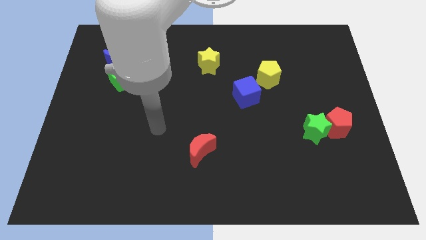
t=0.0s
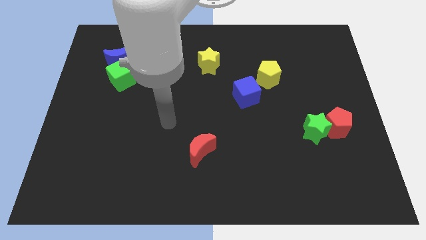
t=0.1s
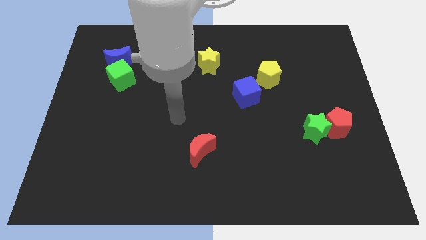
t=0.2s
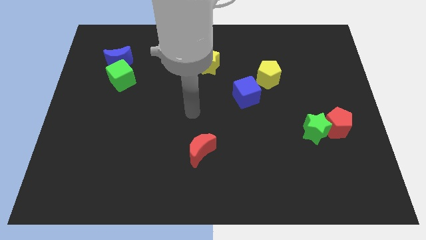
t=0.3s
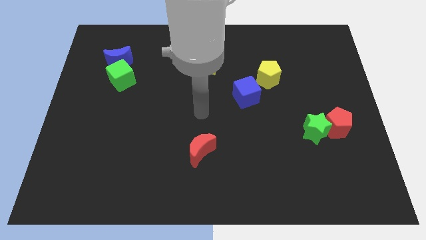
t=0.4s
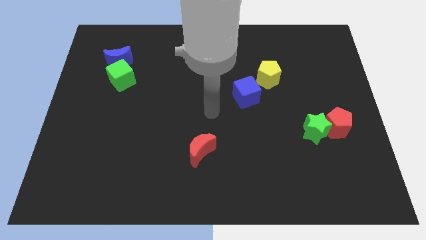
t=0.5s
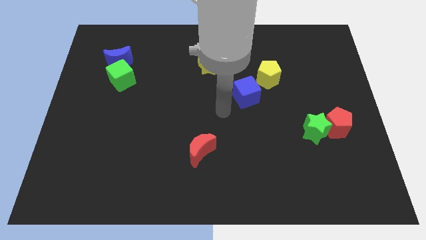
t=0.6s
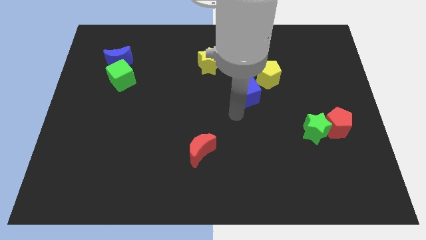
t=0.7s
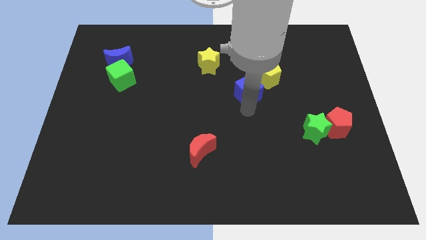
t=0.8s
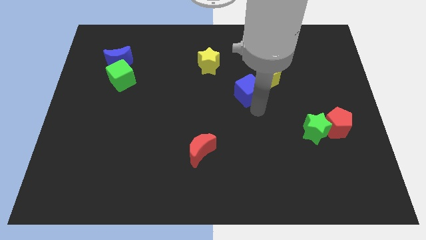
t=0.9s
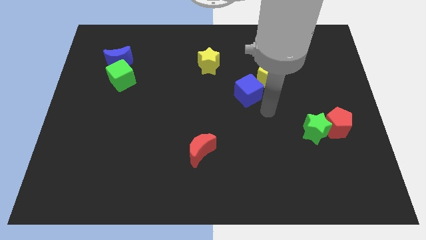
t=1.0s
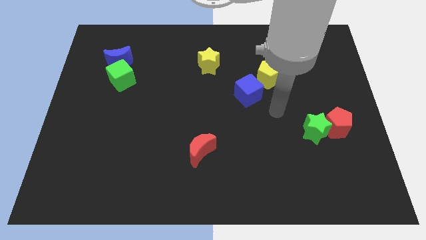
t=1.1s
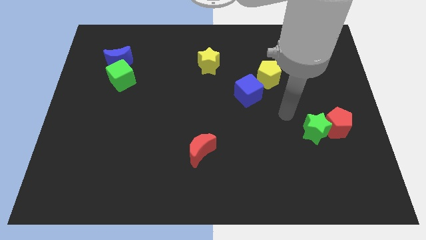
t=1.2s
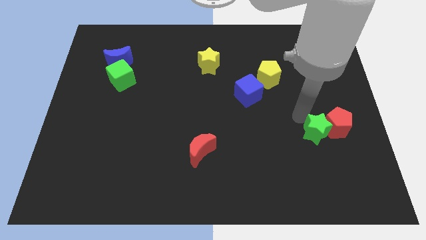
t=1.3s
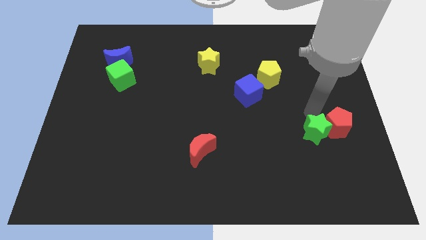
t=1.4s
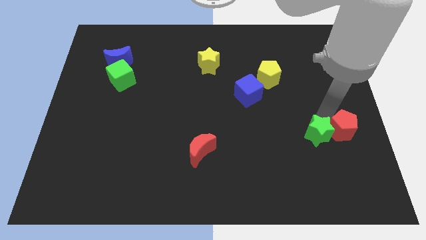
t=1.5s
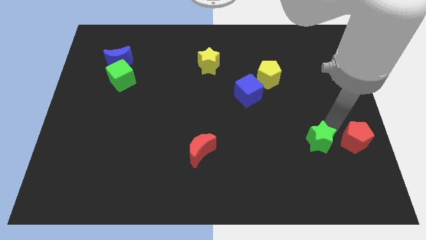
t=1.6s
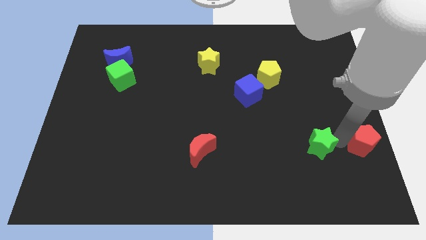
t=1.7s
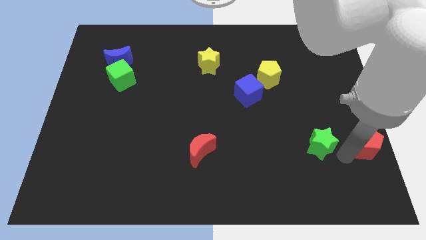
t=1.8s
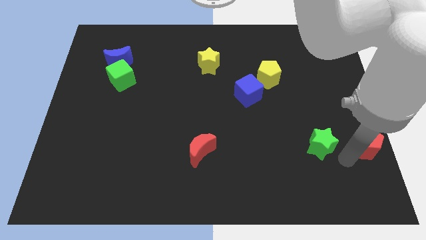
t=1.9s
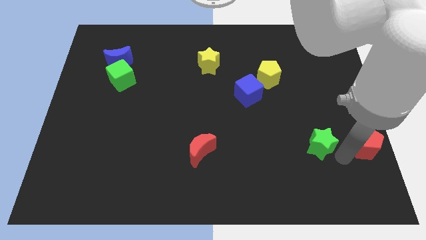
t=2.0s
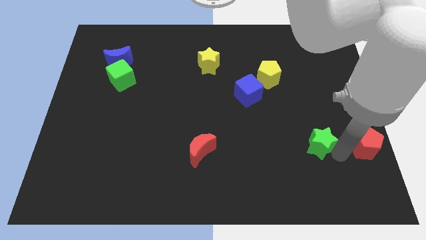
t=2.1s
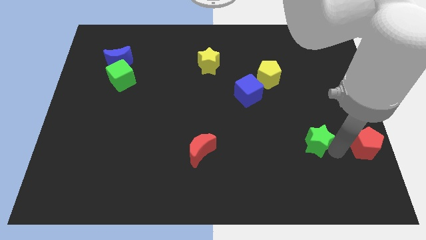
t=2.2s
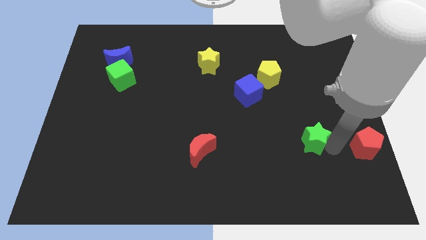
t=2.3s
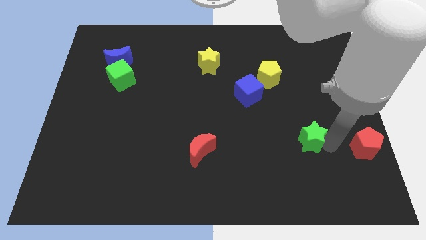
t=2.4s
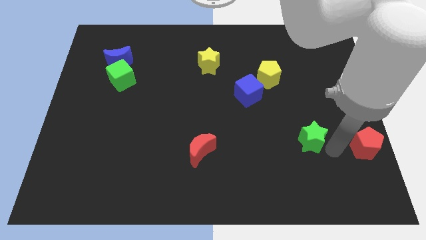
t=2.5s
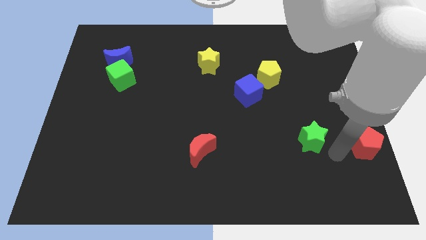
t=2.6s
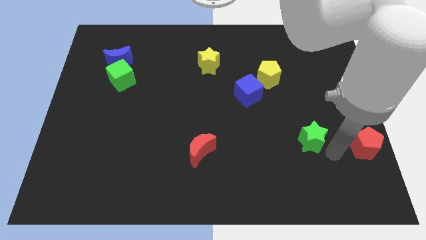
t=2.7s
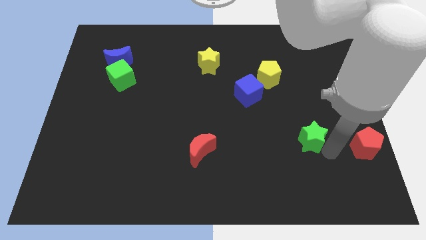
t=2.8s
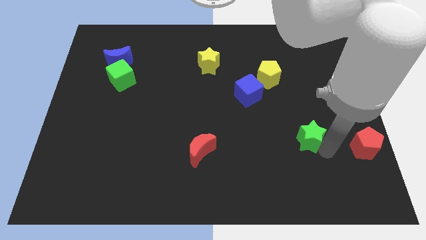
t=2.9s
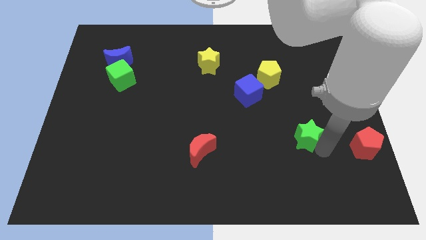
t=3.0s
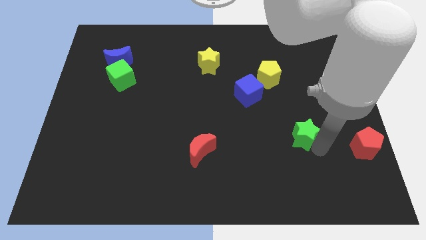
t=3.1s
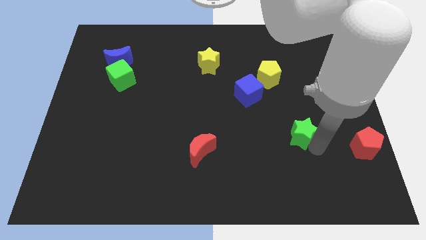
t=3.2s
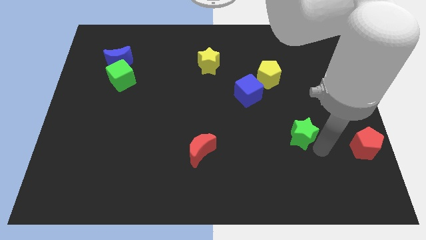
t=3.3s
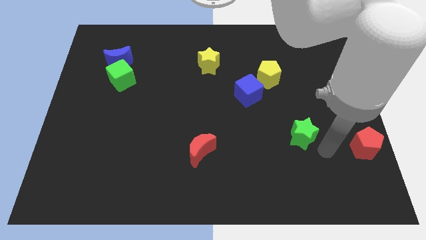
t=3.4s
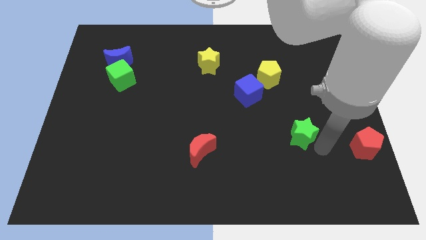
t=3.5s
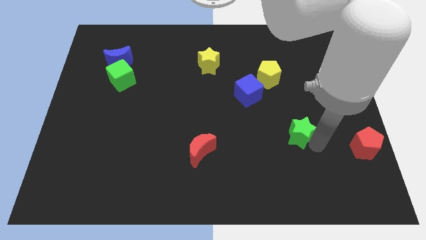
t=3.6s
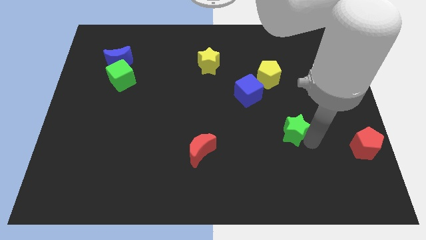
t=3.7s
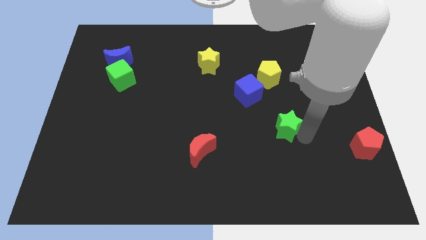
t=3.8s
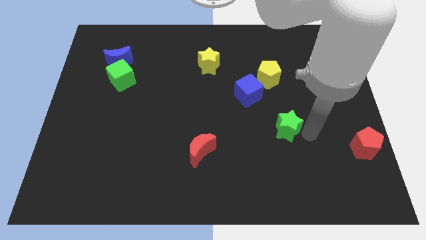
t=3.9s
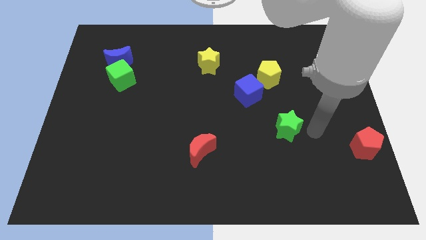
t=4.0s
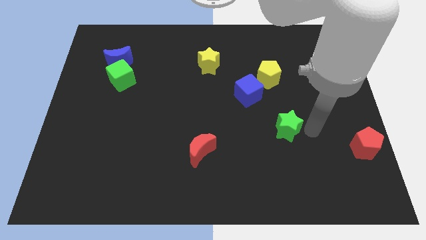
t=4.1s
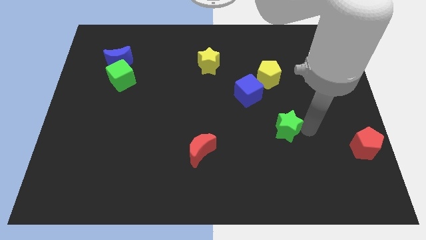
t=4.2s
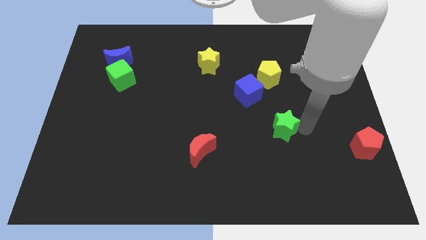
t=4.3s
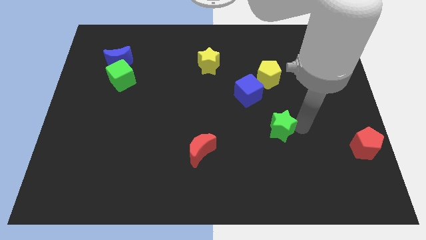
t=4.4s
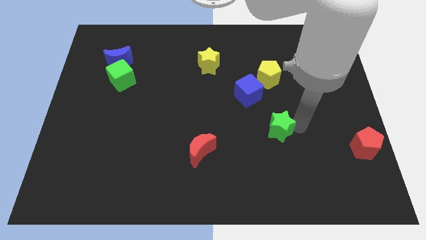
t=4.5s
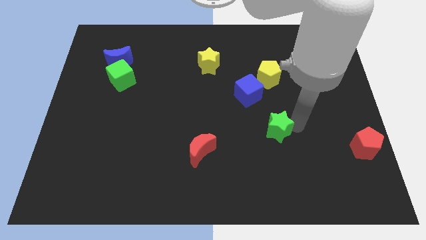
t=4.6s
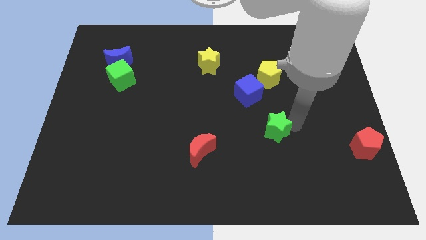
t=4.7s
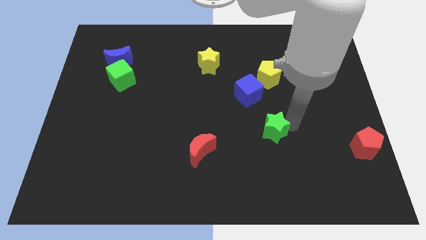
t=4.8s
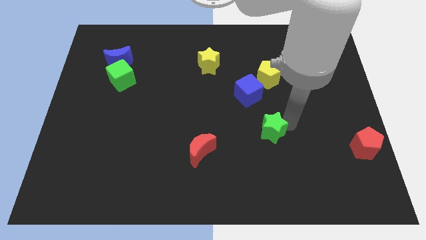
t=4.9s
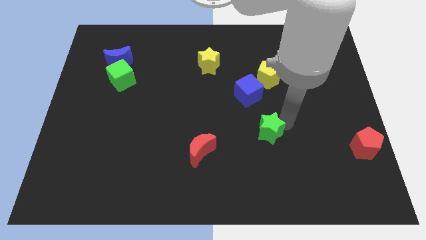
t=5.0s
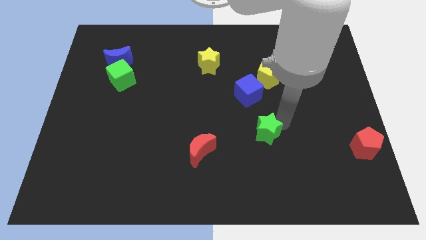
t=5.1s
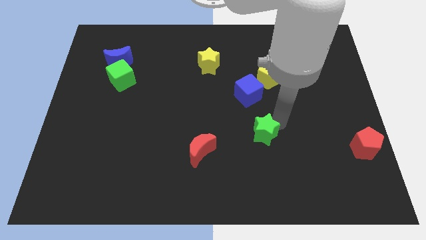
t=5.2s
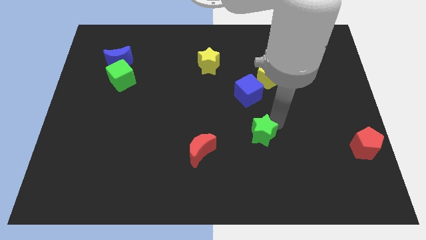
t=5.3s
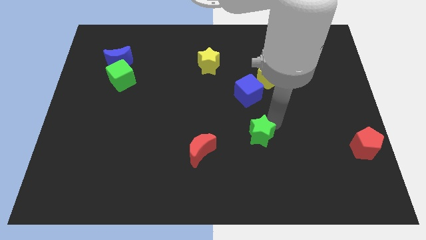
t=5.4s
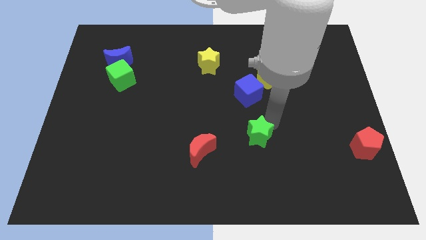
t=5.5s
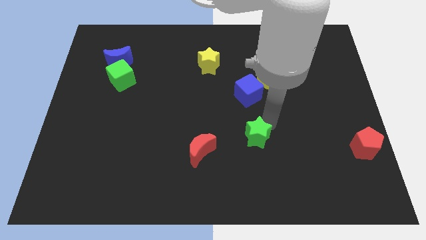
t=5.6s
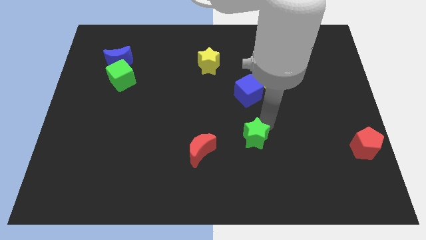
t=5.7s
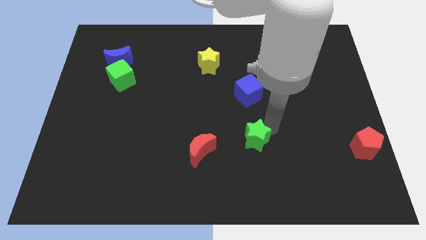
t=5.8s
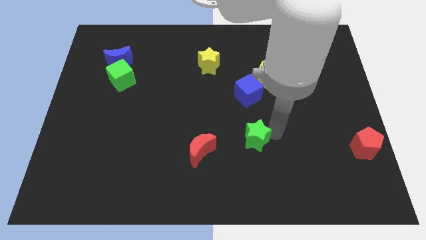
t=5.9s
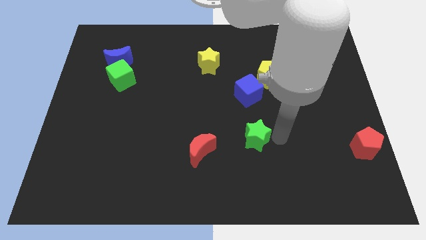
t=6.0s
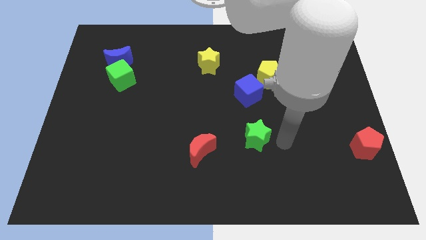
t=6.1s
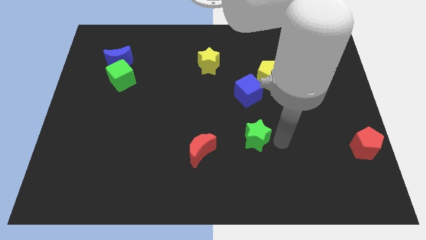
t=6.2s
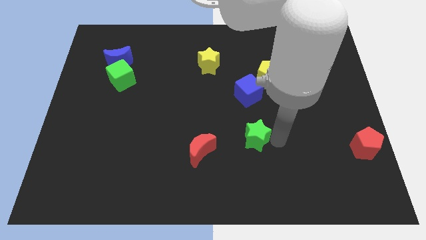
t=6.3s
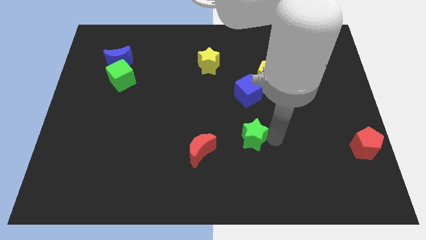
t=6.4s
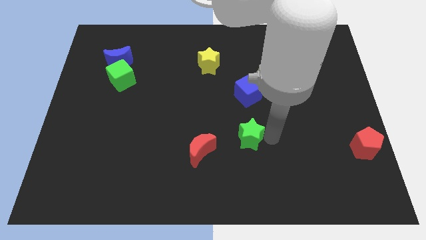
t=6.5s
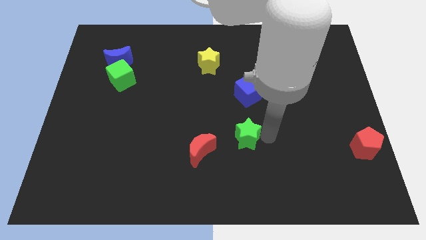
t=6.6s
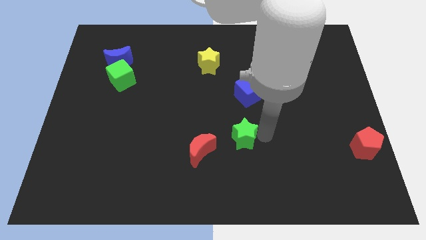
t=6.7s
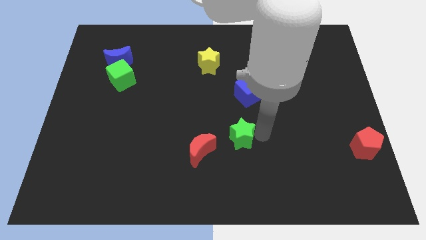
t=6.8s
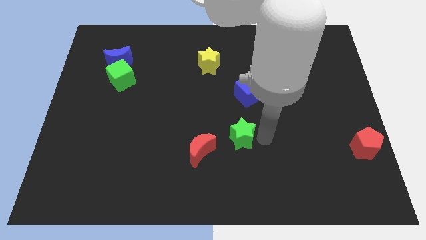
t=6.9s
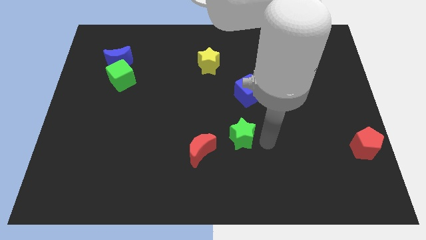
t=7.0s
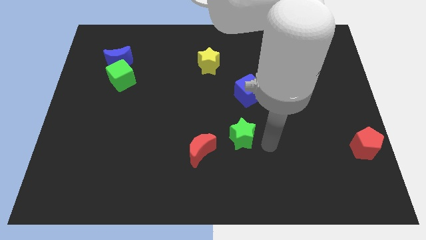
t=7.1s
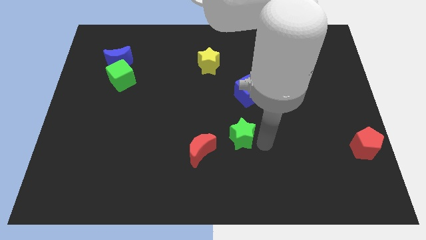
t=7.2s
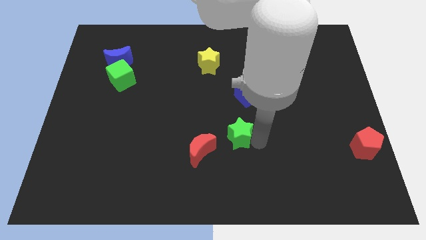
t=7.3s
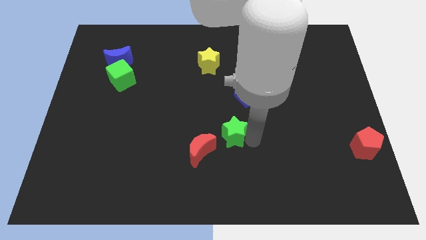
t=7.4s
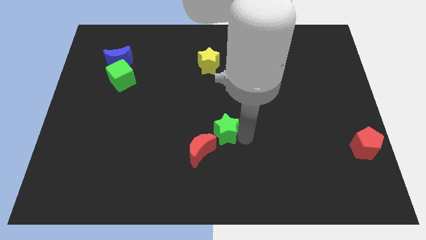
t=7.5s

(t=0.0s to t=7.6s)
slide the green star left

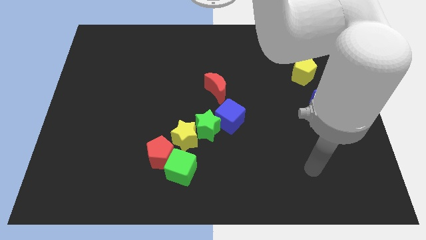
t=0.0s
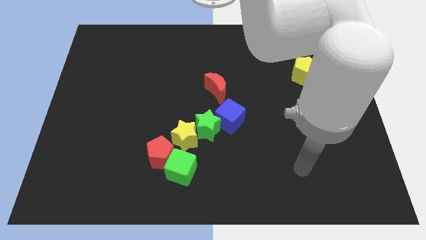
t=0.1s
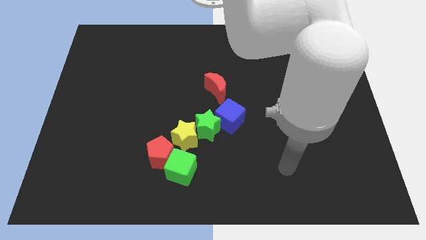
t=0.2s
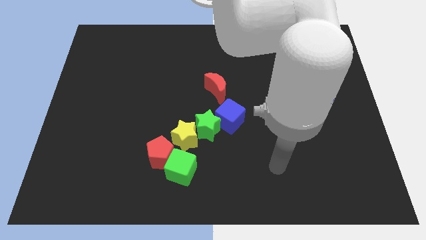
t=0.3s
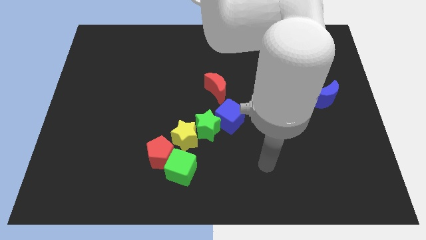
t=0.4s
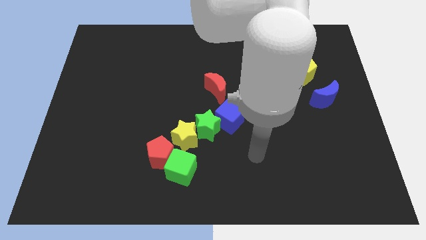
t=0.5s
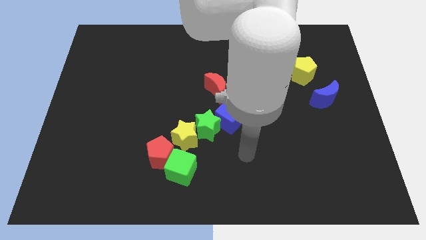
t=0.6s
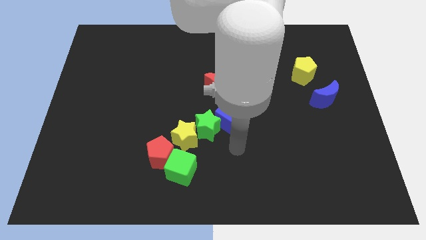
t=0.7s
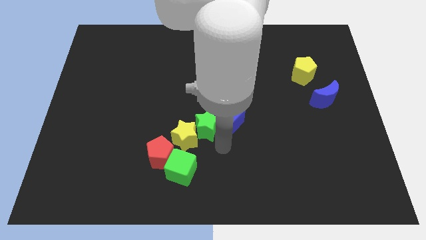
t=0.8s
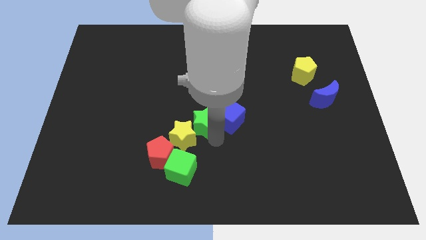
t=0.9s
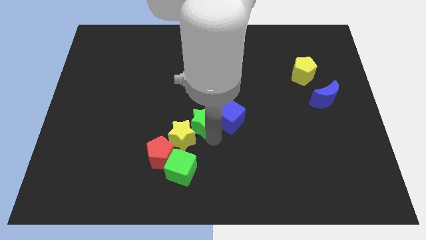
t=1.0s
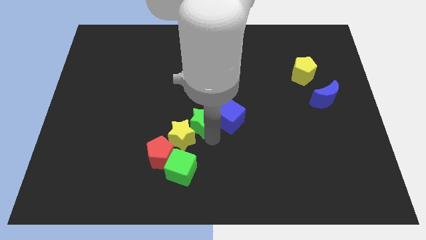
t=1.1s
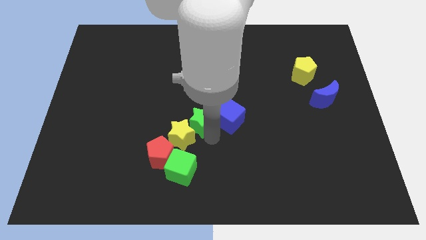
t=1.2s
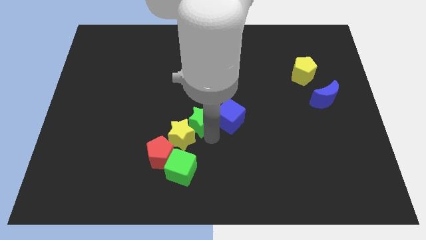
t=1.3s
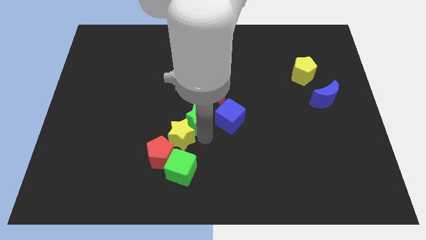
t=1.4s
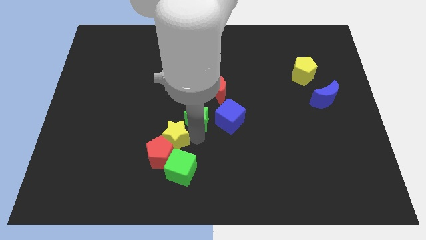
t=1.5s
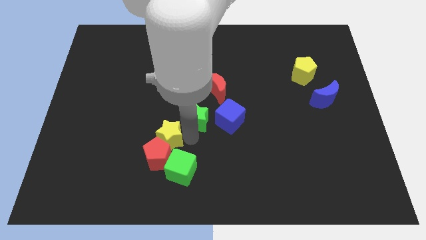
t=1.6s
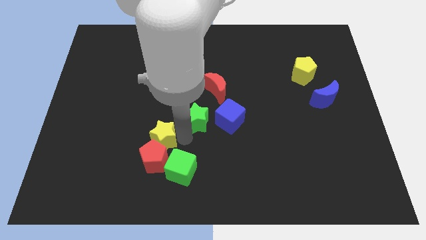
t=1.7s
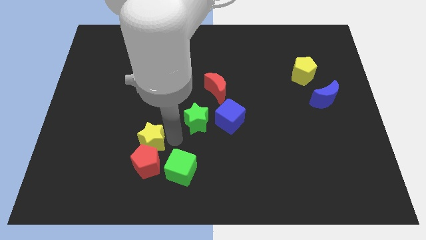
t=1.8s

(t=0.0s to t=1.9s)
slightly push the yellow star to the left
